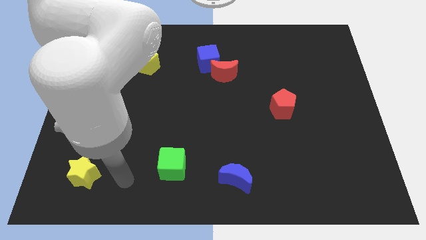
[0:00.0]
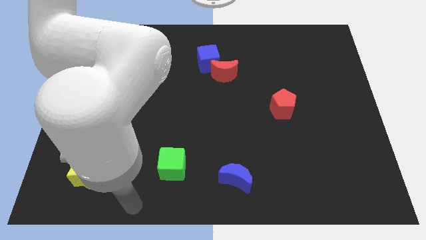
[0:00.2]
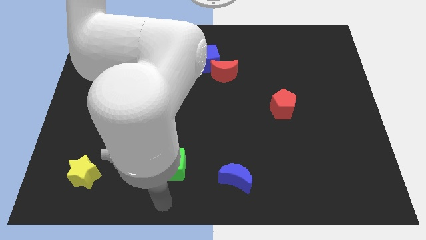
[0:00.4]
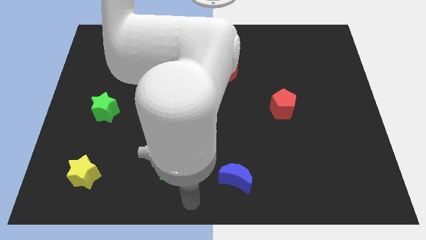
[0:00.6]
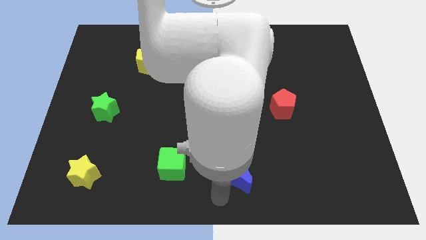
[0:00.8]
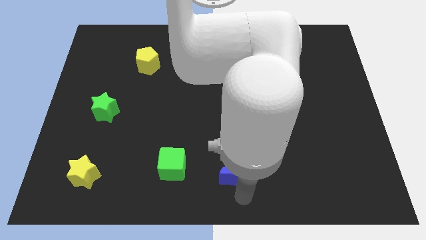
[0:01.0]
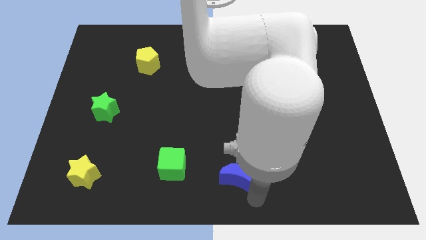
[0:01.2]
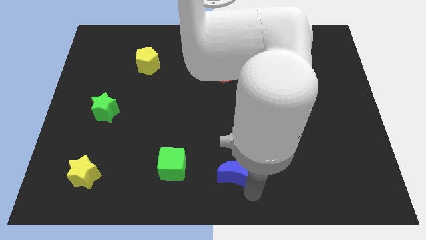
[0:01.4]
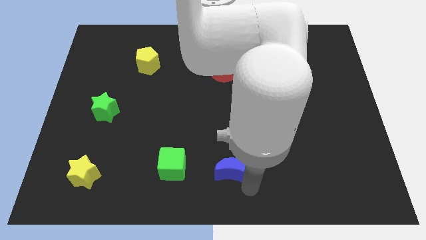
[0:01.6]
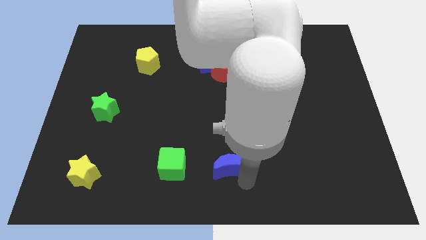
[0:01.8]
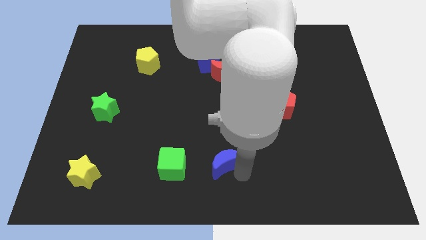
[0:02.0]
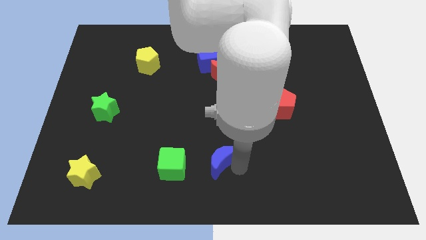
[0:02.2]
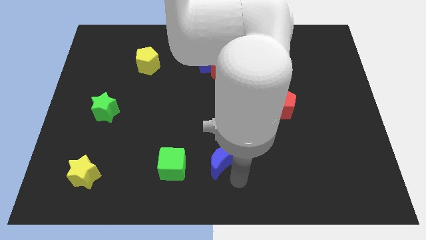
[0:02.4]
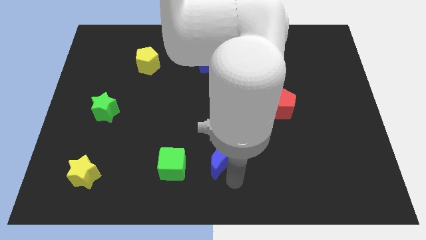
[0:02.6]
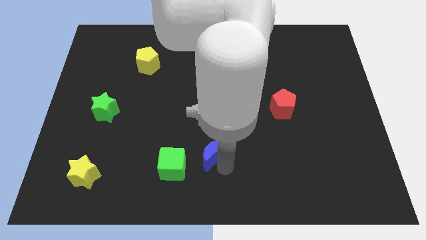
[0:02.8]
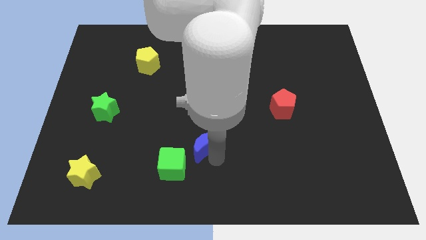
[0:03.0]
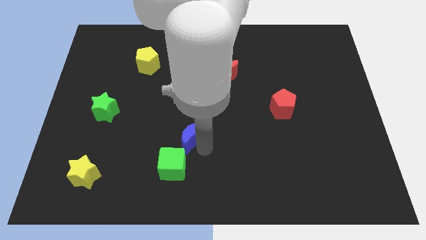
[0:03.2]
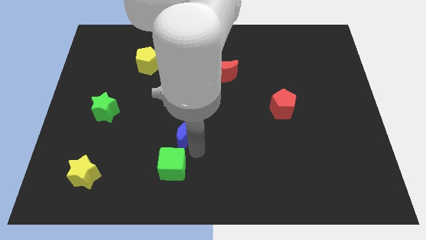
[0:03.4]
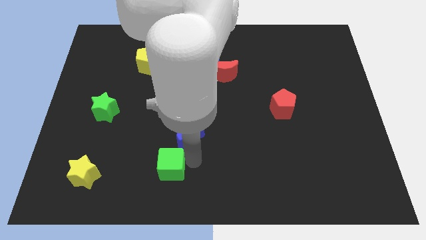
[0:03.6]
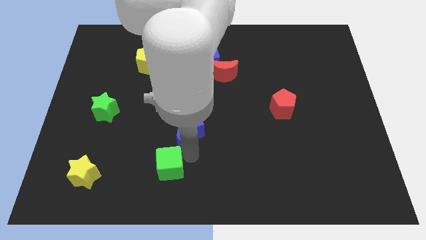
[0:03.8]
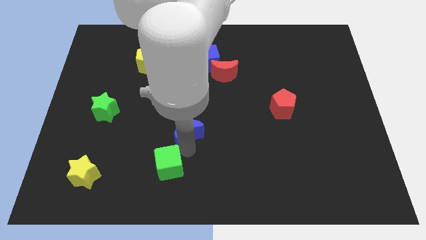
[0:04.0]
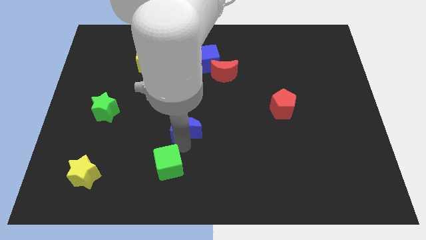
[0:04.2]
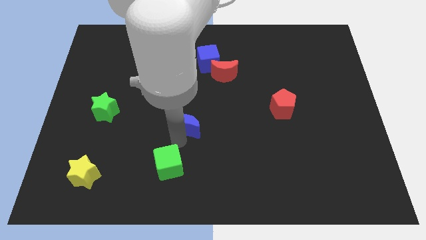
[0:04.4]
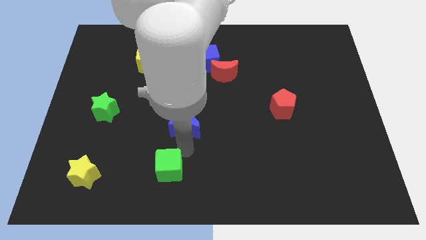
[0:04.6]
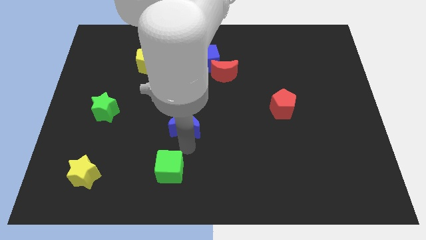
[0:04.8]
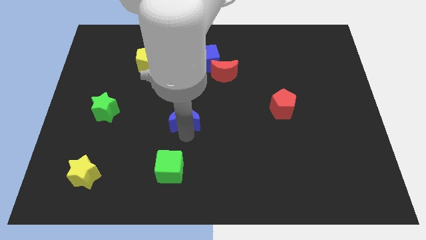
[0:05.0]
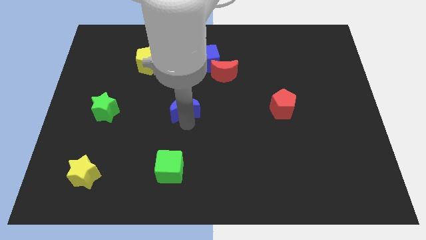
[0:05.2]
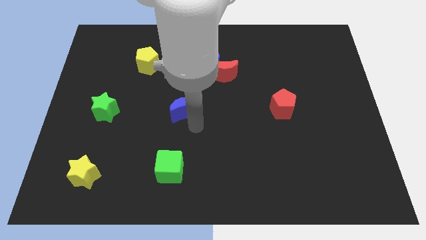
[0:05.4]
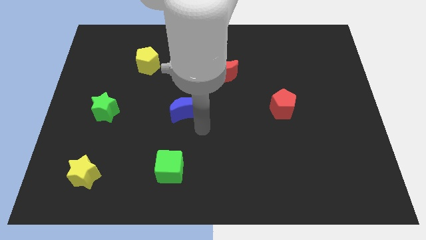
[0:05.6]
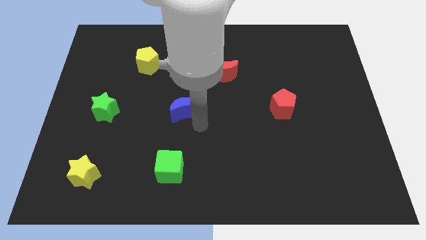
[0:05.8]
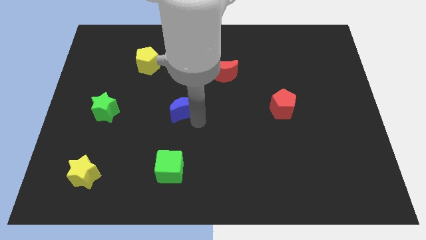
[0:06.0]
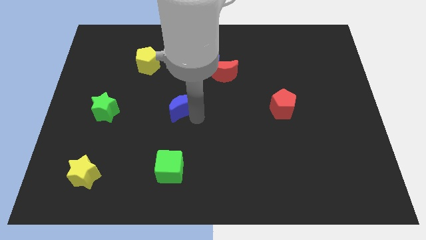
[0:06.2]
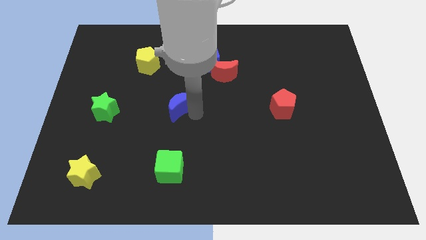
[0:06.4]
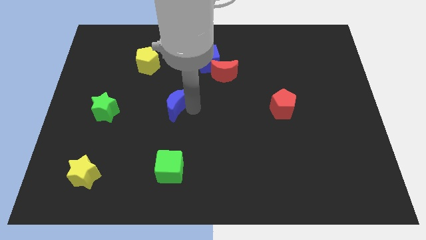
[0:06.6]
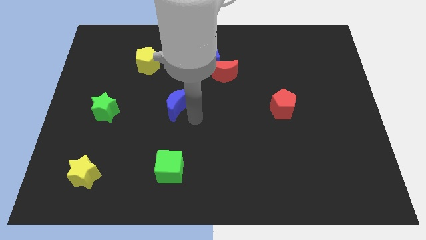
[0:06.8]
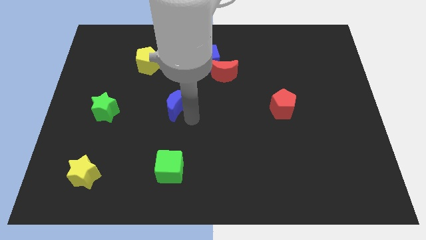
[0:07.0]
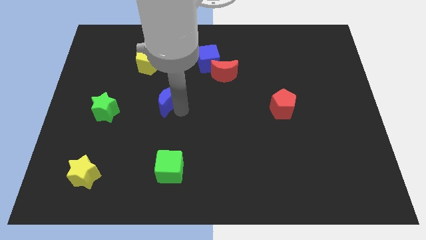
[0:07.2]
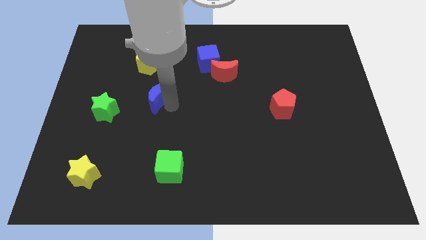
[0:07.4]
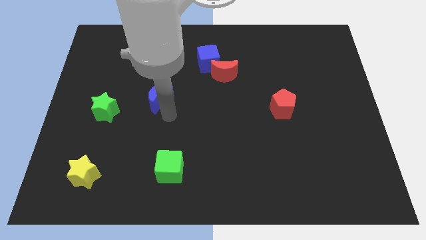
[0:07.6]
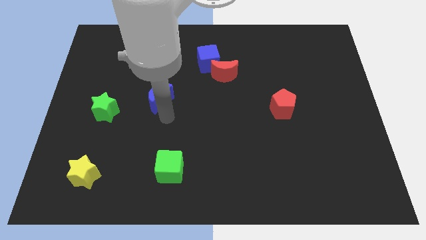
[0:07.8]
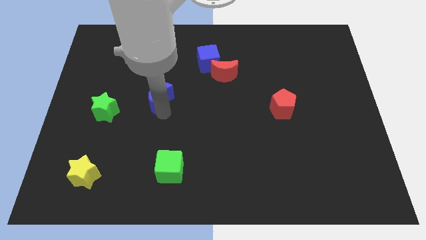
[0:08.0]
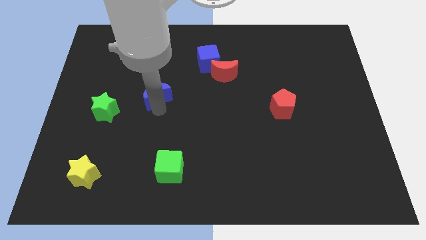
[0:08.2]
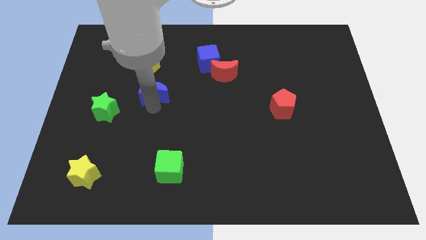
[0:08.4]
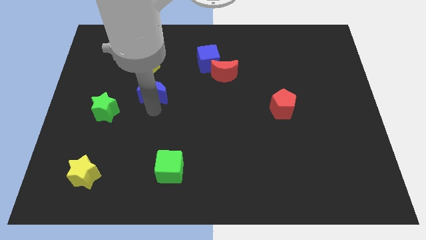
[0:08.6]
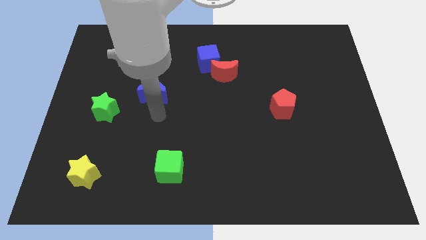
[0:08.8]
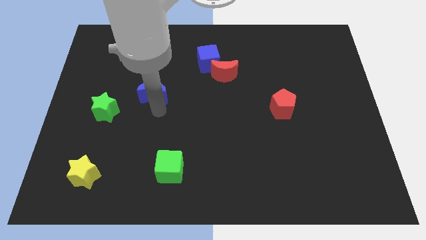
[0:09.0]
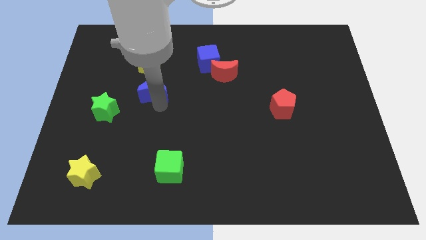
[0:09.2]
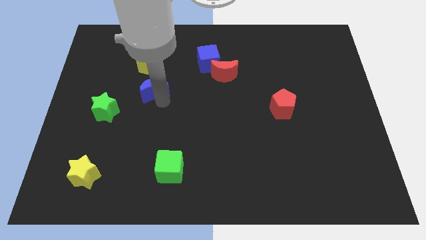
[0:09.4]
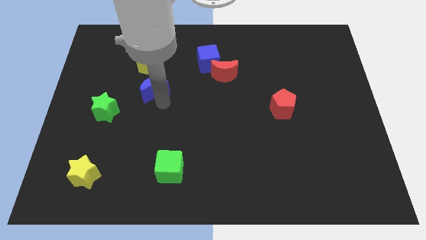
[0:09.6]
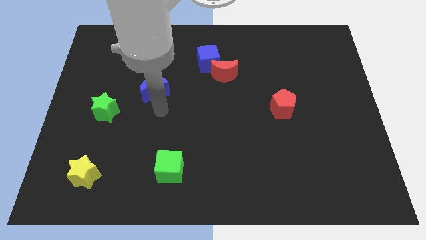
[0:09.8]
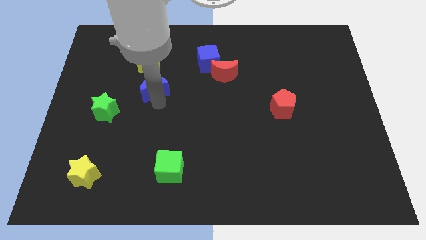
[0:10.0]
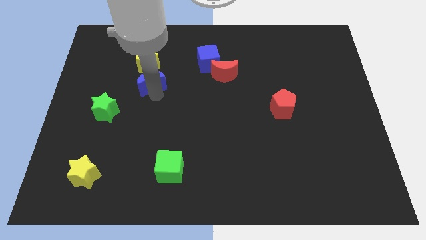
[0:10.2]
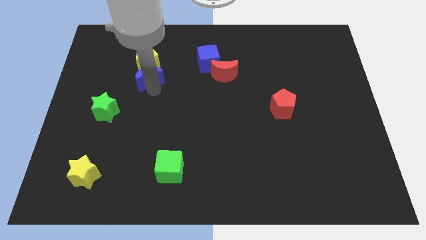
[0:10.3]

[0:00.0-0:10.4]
put the blue moon to the yellow pentagon

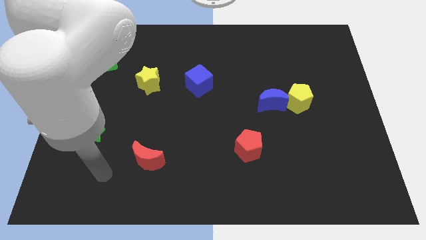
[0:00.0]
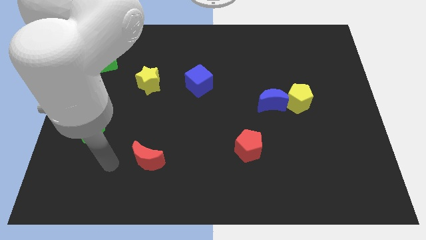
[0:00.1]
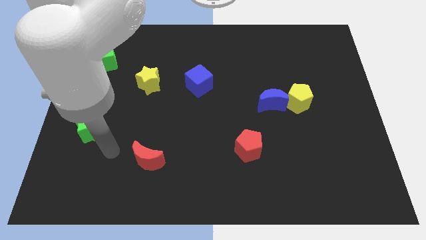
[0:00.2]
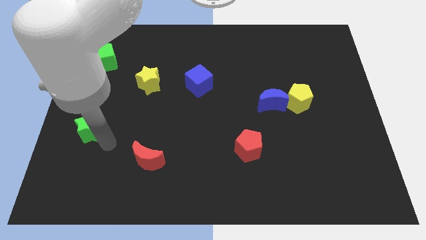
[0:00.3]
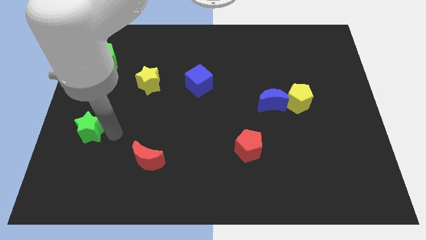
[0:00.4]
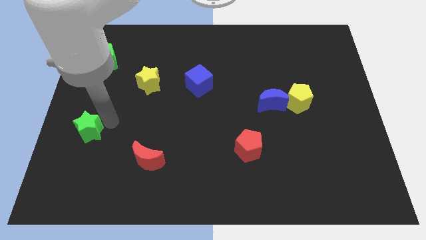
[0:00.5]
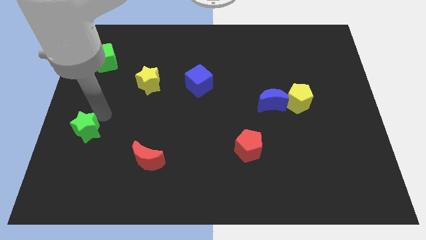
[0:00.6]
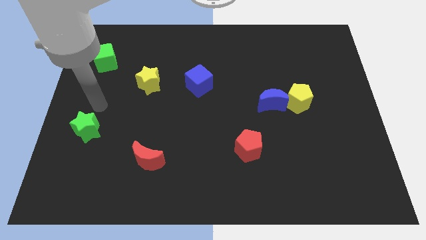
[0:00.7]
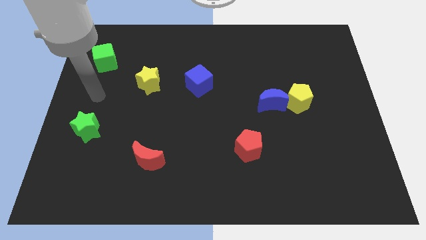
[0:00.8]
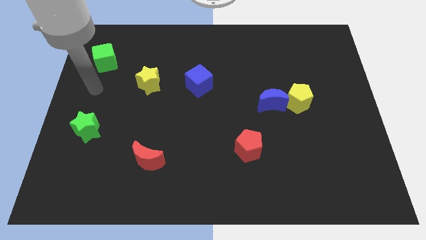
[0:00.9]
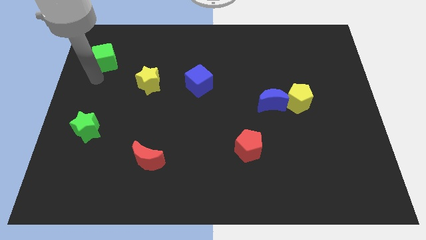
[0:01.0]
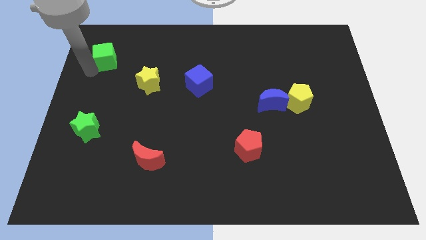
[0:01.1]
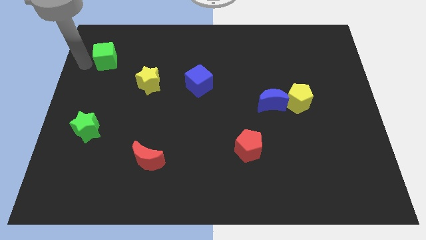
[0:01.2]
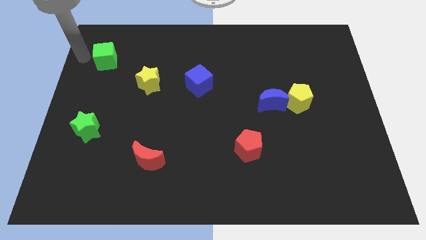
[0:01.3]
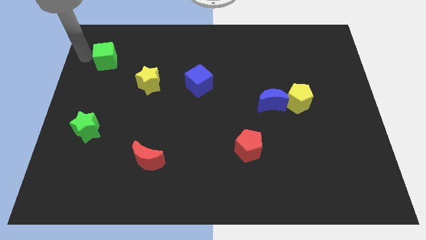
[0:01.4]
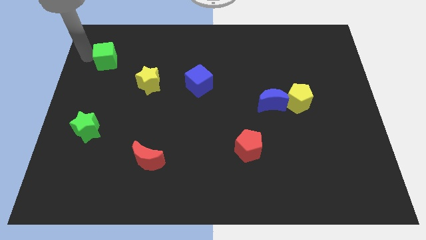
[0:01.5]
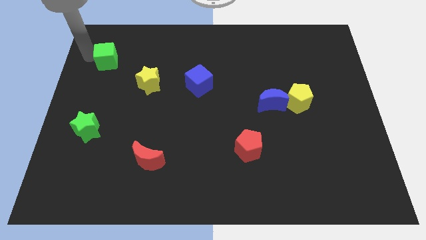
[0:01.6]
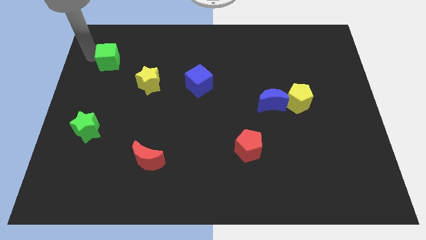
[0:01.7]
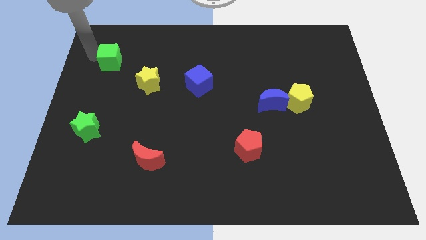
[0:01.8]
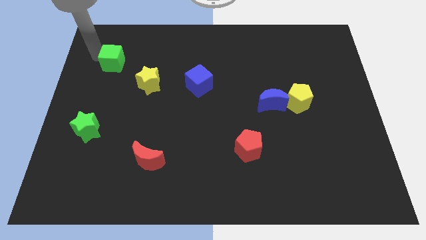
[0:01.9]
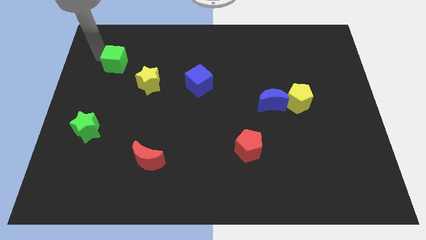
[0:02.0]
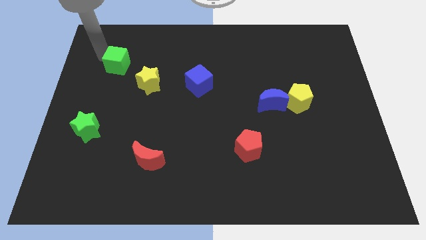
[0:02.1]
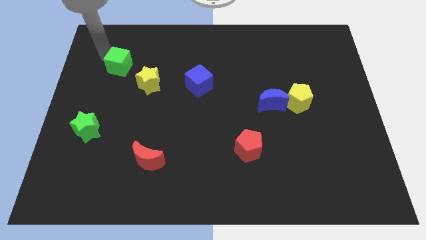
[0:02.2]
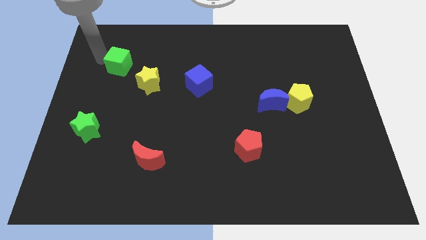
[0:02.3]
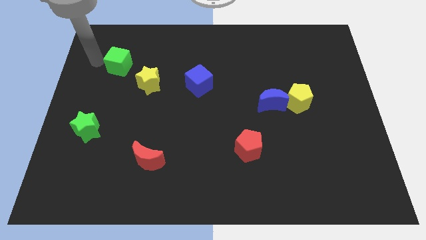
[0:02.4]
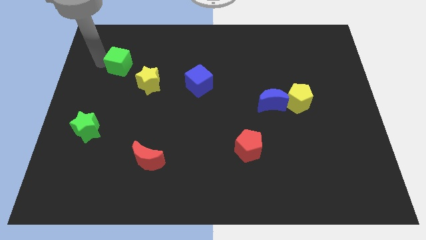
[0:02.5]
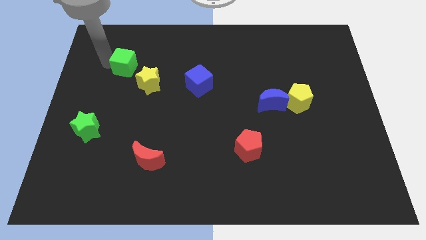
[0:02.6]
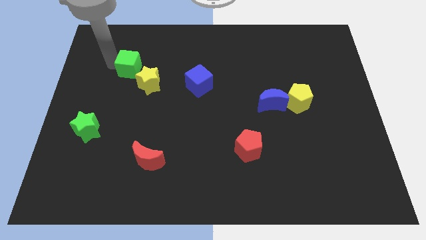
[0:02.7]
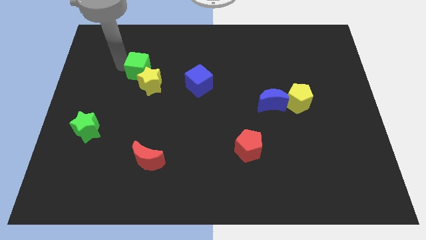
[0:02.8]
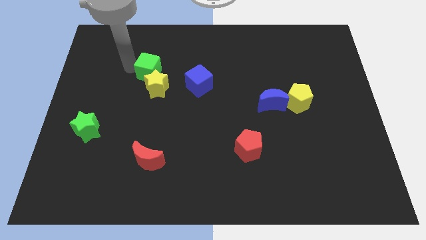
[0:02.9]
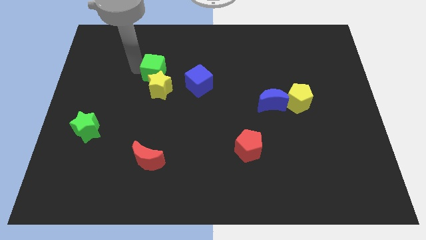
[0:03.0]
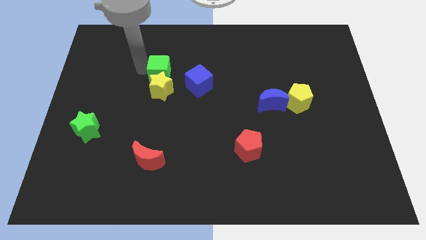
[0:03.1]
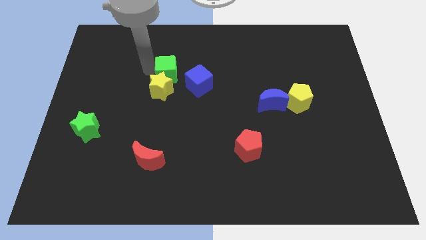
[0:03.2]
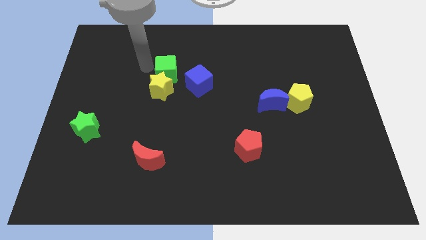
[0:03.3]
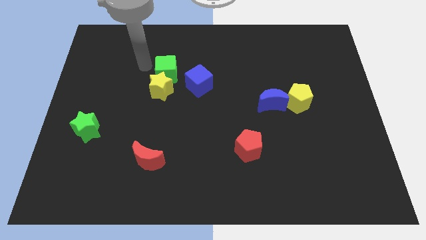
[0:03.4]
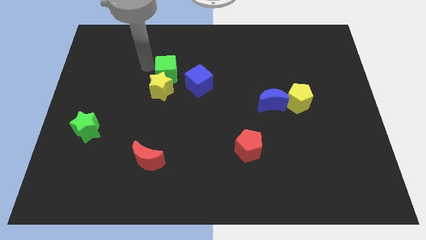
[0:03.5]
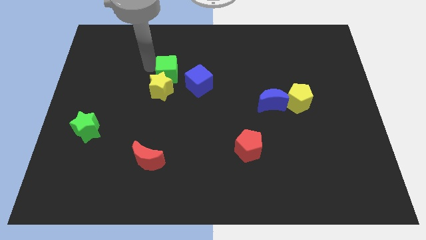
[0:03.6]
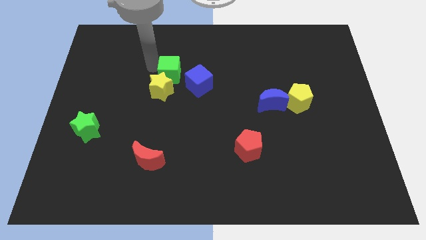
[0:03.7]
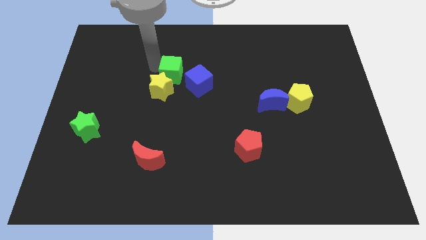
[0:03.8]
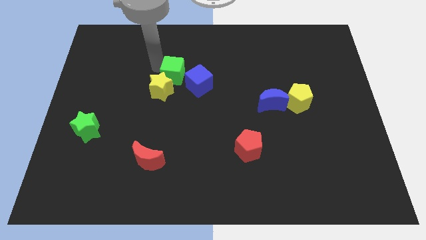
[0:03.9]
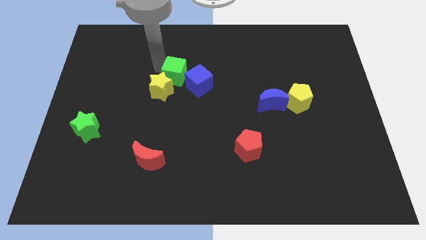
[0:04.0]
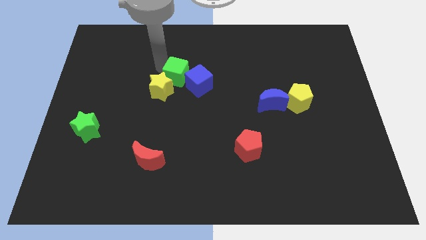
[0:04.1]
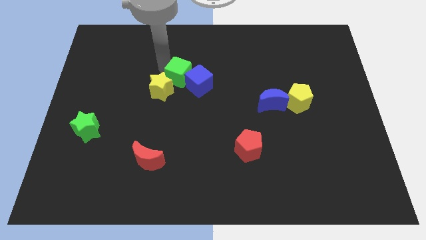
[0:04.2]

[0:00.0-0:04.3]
put the green cube towards the blue cube
